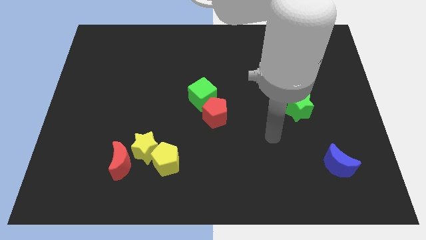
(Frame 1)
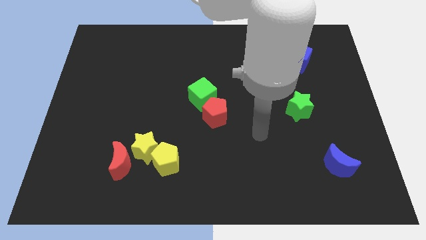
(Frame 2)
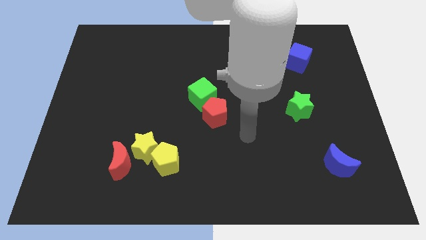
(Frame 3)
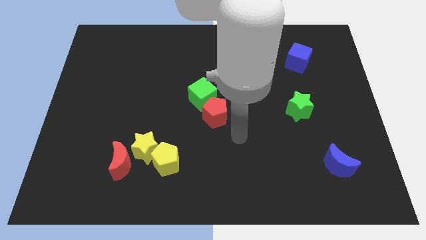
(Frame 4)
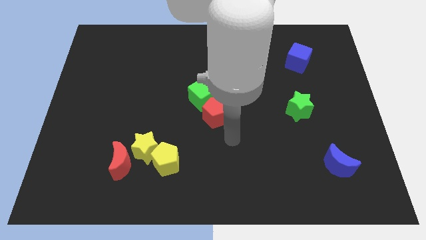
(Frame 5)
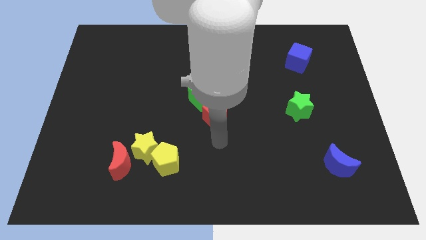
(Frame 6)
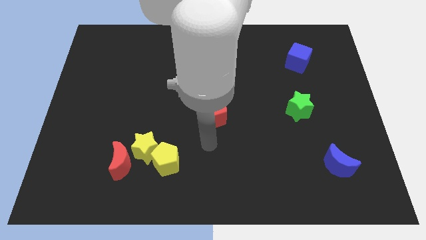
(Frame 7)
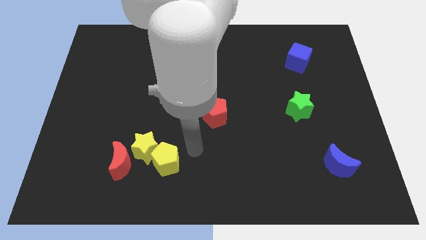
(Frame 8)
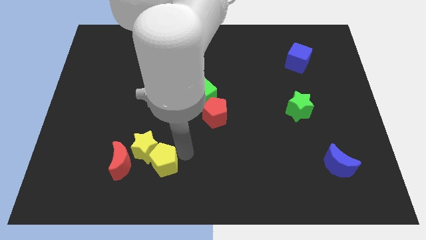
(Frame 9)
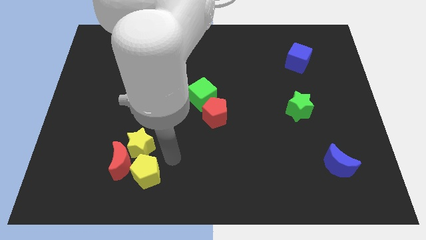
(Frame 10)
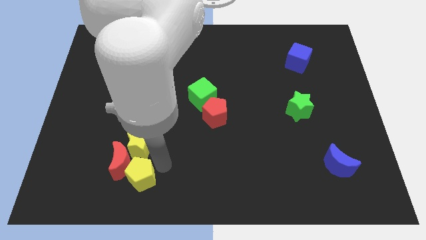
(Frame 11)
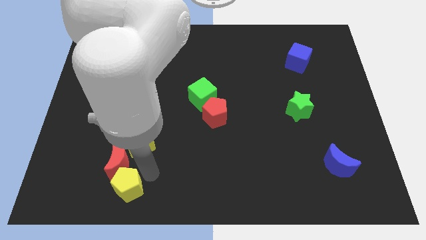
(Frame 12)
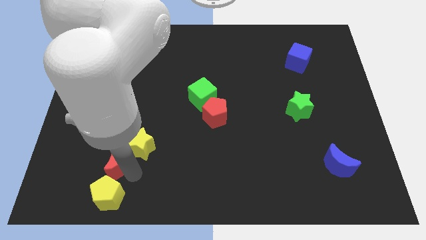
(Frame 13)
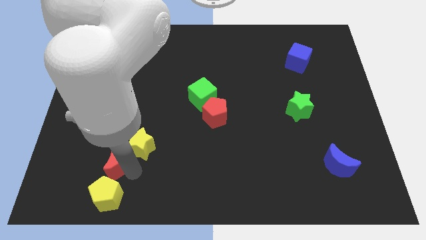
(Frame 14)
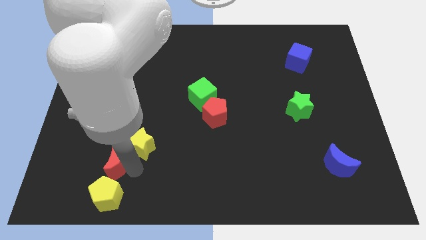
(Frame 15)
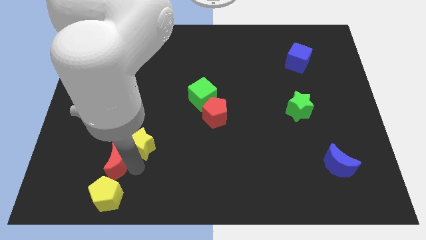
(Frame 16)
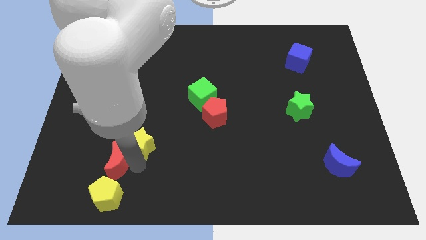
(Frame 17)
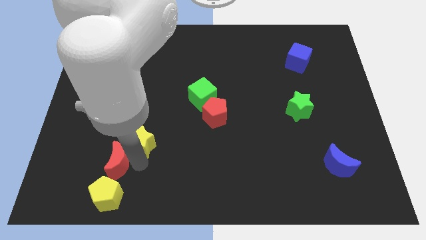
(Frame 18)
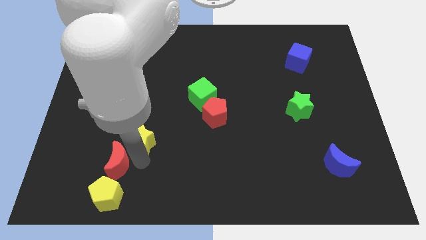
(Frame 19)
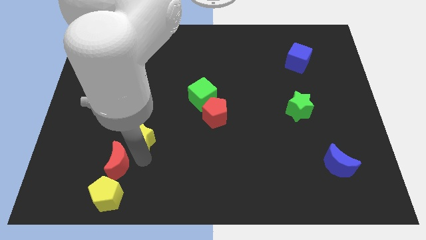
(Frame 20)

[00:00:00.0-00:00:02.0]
pull the yellow star apart from the red moon and yellow pentagon

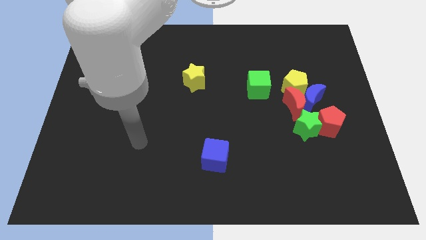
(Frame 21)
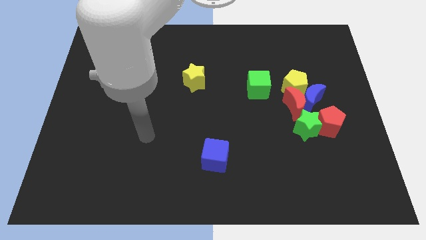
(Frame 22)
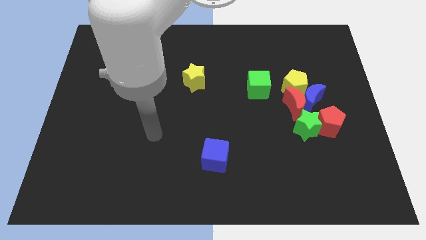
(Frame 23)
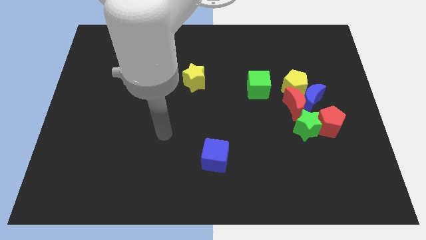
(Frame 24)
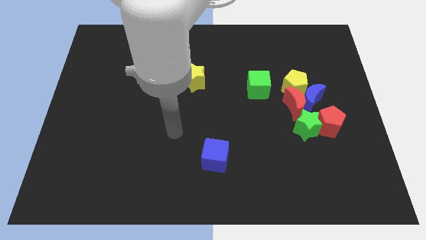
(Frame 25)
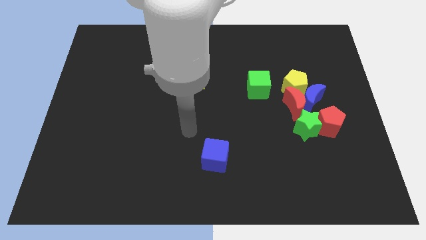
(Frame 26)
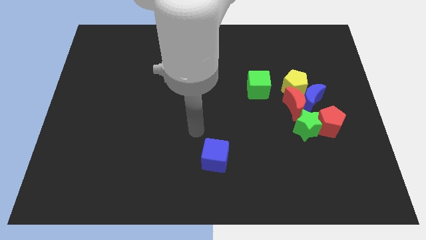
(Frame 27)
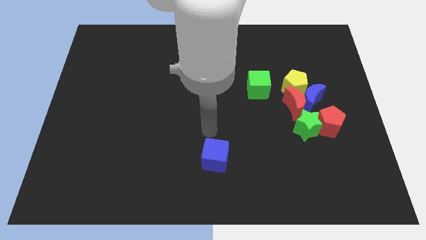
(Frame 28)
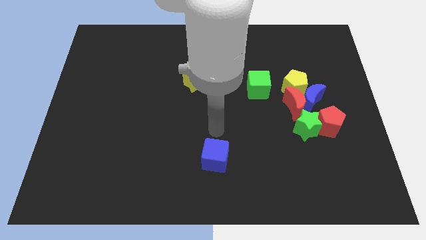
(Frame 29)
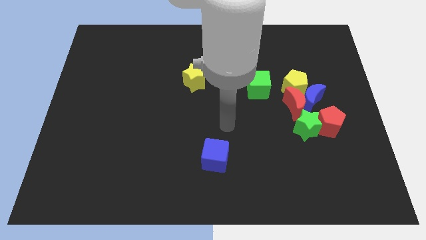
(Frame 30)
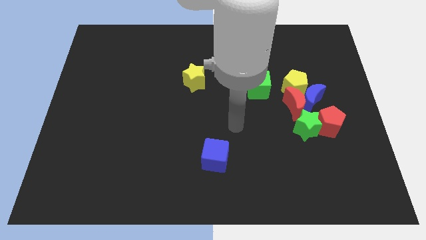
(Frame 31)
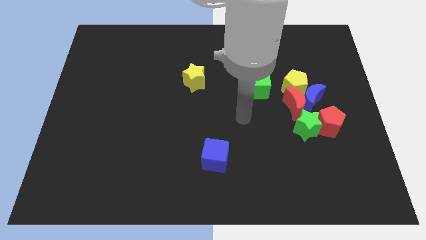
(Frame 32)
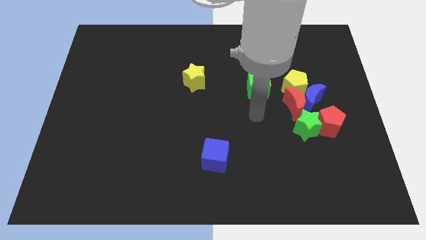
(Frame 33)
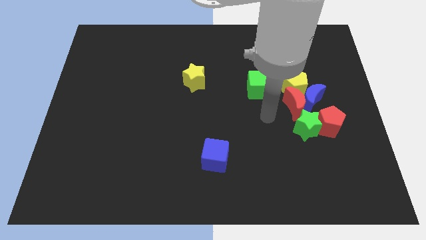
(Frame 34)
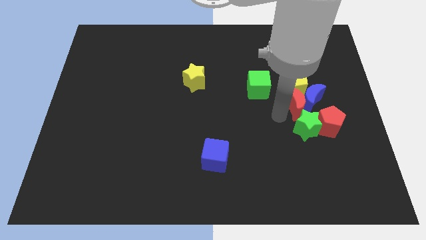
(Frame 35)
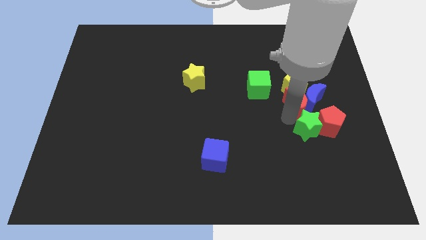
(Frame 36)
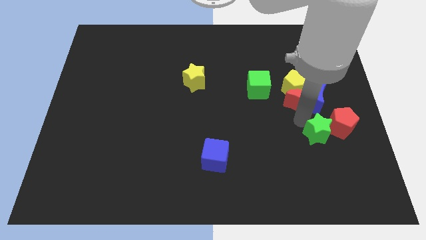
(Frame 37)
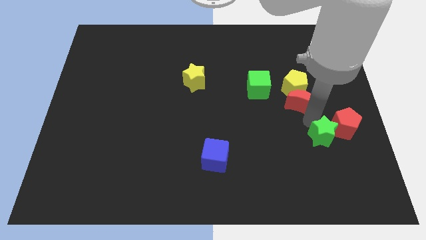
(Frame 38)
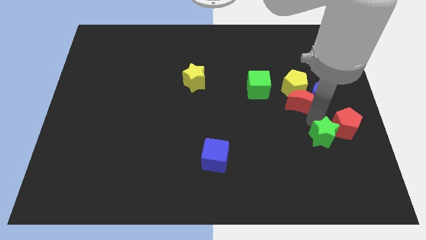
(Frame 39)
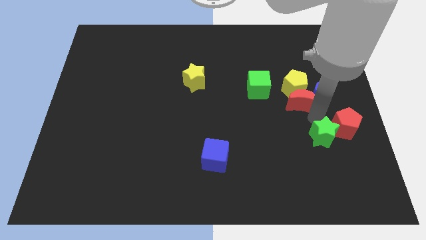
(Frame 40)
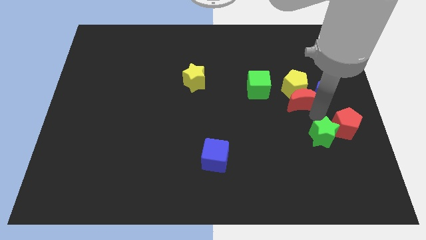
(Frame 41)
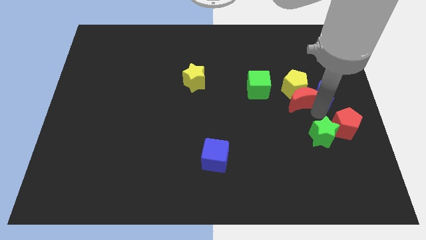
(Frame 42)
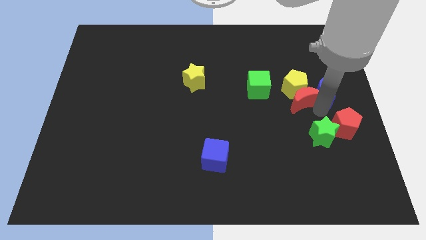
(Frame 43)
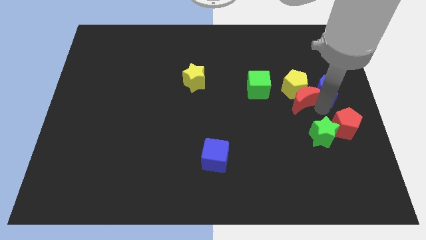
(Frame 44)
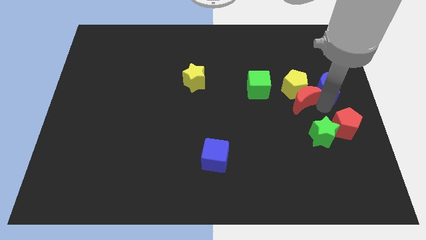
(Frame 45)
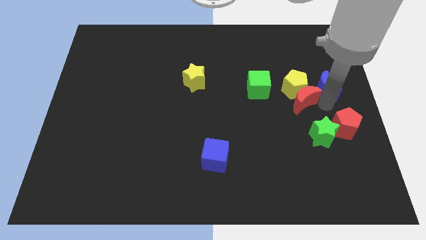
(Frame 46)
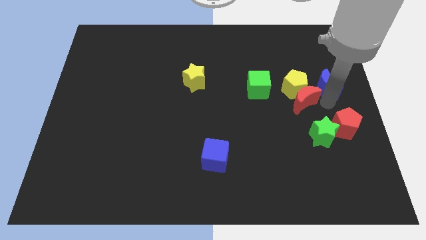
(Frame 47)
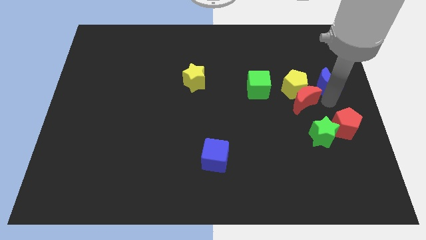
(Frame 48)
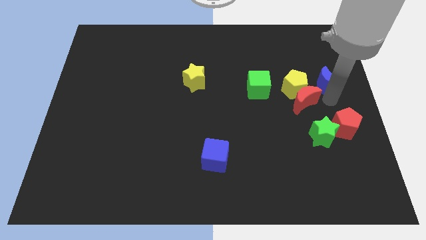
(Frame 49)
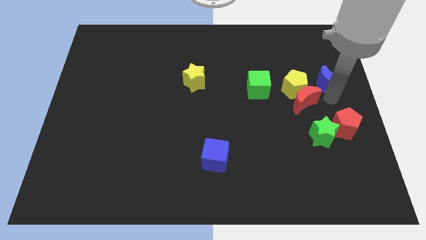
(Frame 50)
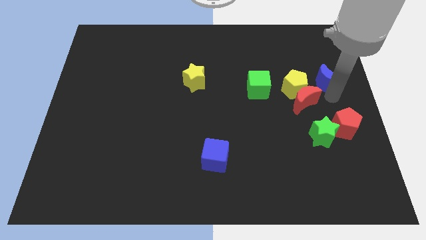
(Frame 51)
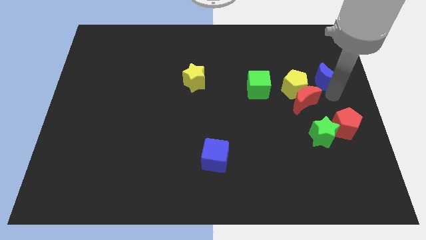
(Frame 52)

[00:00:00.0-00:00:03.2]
move the blue moon away from the clump

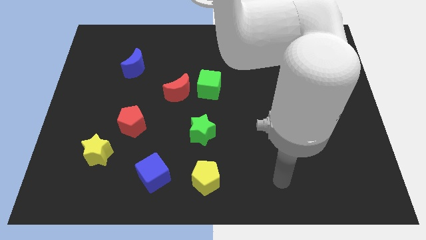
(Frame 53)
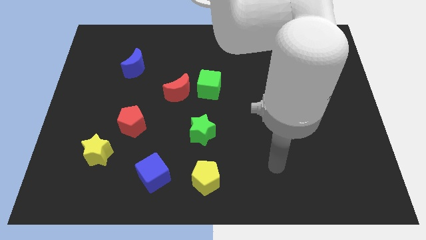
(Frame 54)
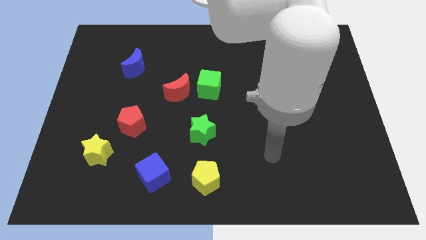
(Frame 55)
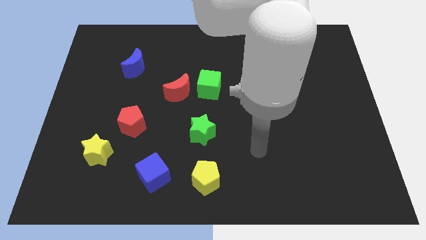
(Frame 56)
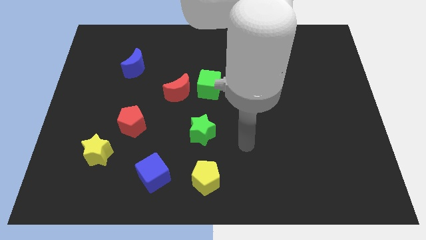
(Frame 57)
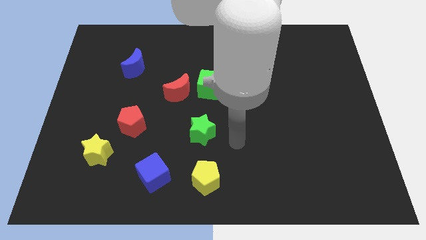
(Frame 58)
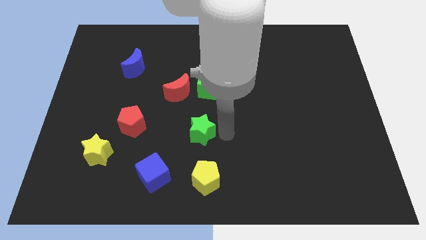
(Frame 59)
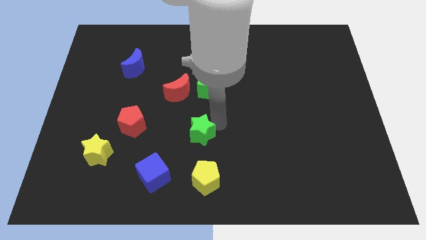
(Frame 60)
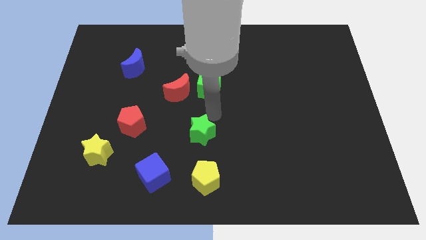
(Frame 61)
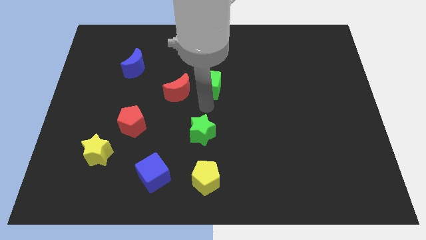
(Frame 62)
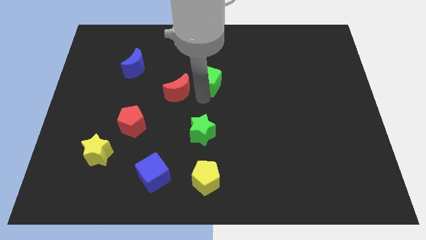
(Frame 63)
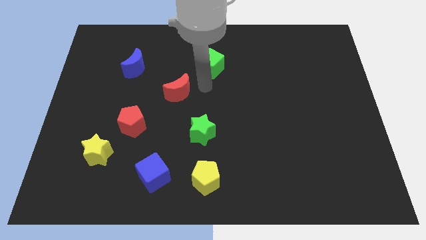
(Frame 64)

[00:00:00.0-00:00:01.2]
separate the red moon from the green cube

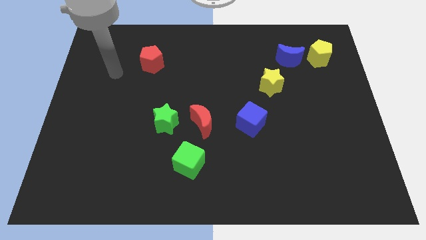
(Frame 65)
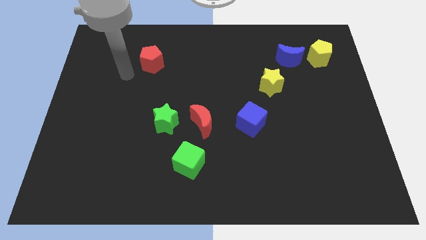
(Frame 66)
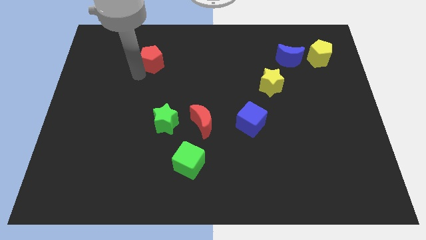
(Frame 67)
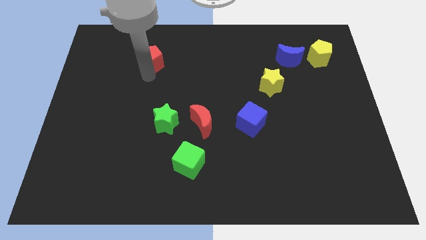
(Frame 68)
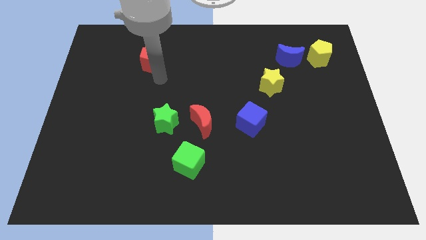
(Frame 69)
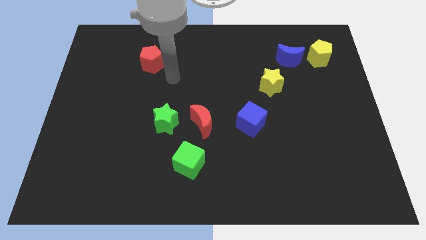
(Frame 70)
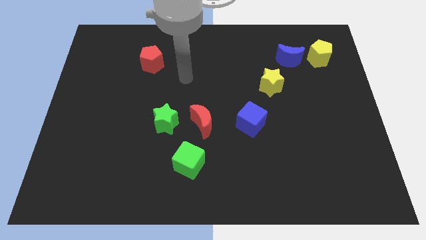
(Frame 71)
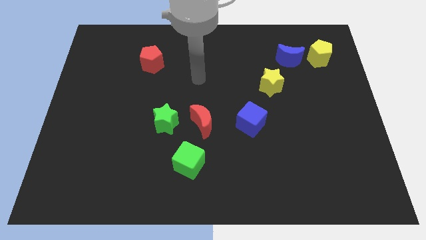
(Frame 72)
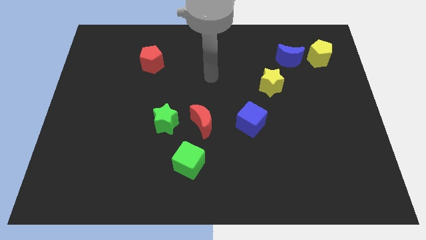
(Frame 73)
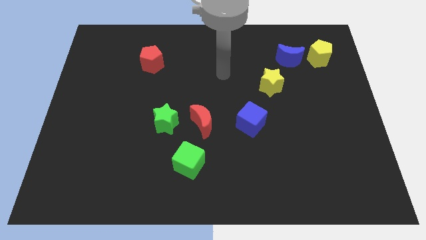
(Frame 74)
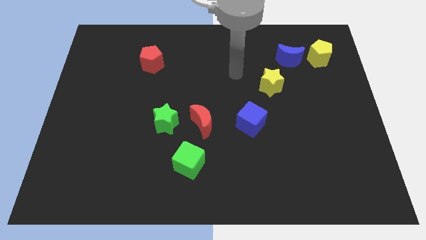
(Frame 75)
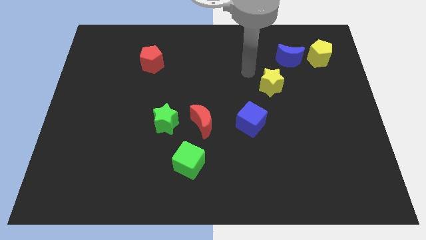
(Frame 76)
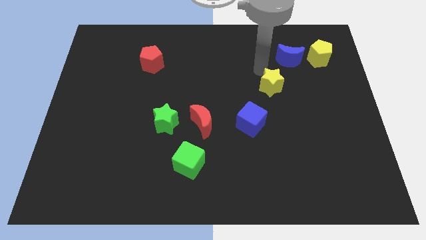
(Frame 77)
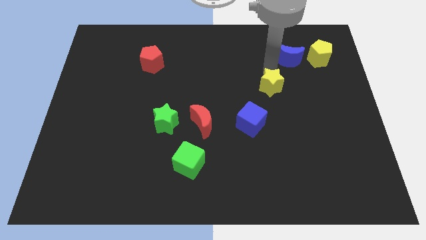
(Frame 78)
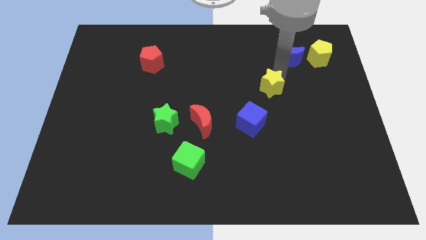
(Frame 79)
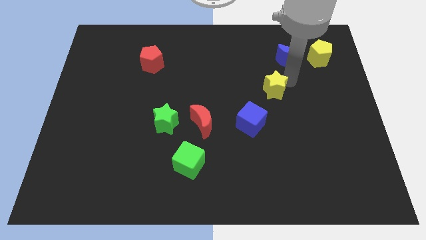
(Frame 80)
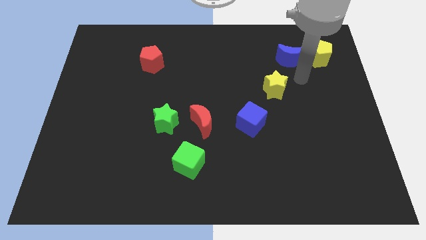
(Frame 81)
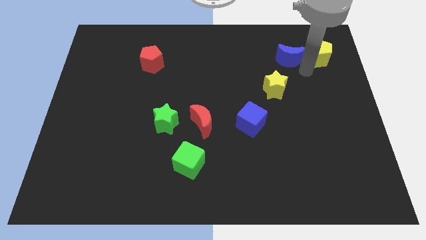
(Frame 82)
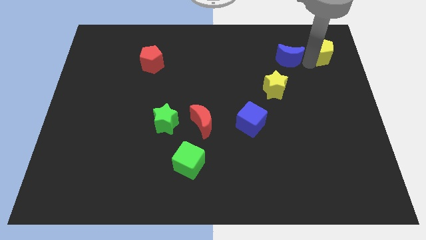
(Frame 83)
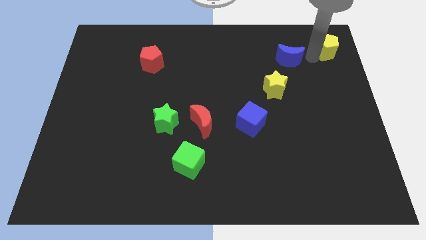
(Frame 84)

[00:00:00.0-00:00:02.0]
move the blue moon away from the yellow pentagon

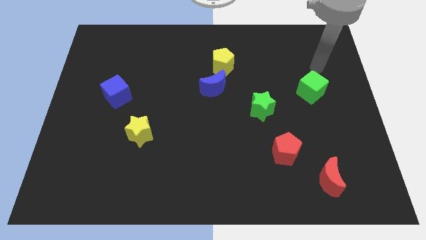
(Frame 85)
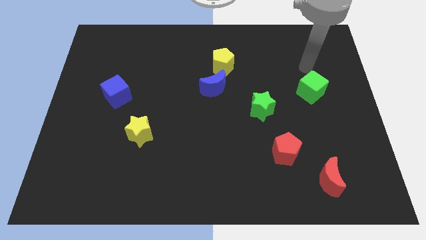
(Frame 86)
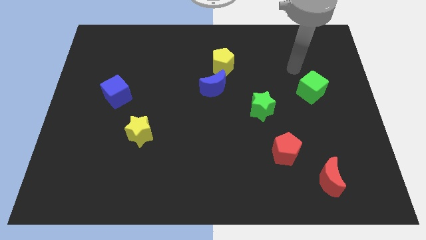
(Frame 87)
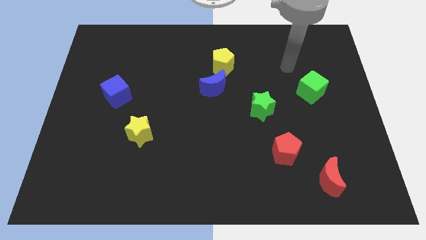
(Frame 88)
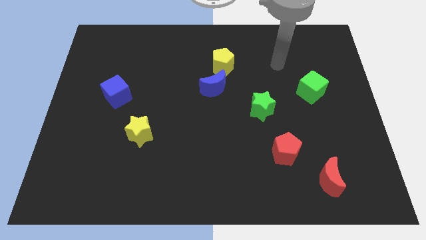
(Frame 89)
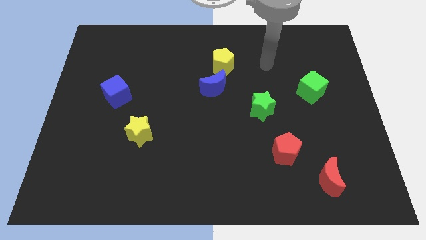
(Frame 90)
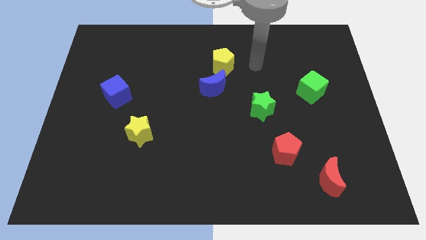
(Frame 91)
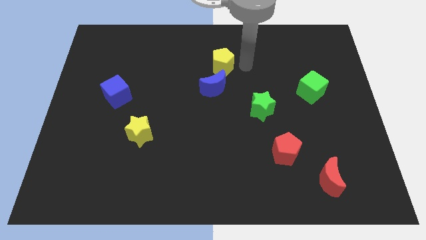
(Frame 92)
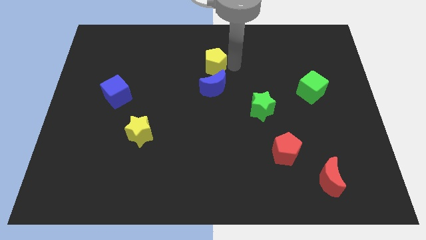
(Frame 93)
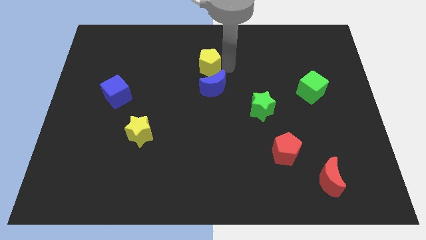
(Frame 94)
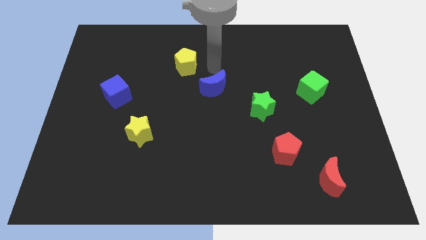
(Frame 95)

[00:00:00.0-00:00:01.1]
separate the blue moon from the yellow pentagon

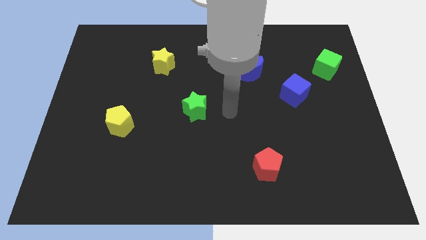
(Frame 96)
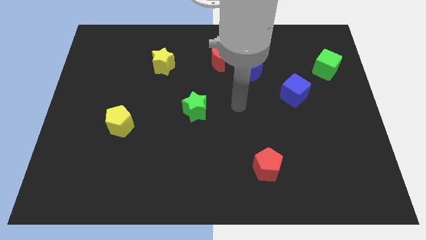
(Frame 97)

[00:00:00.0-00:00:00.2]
separate the red moon from the blue moon
